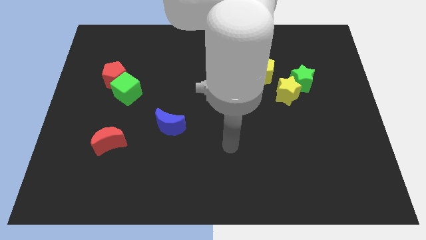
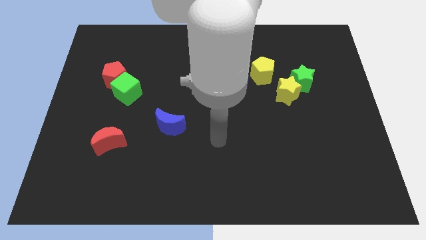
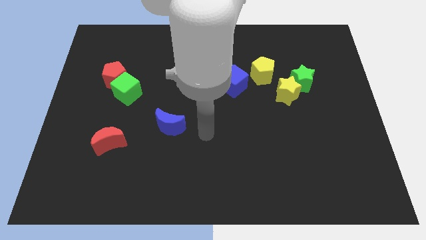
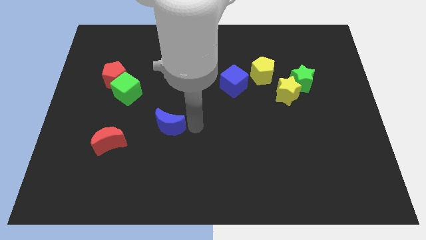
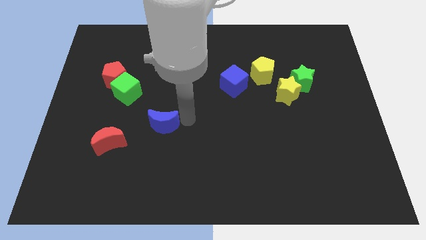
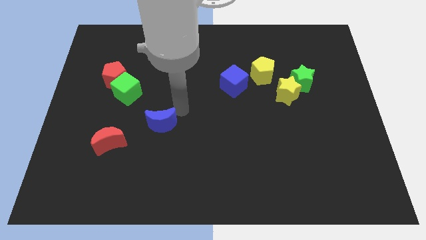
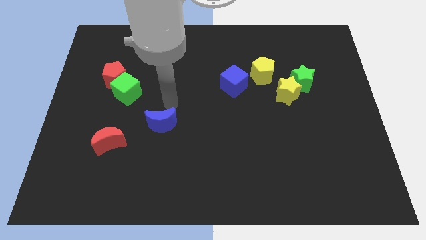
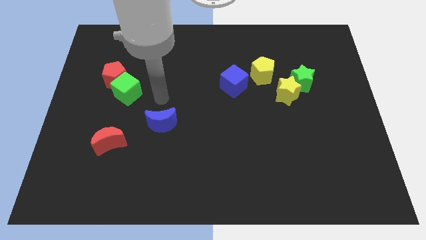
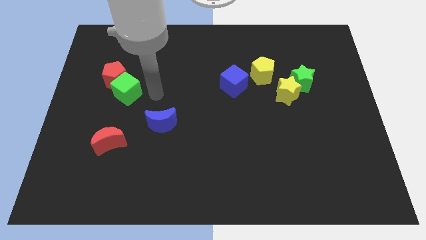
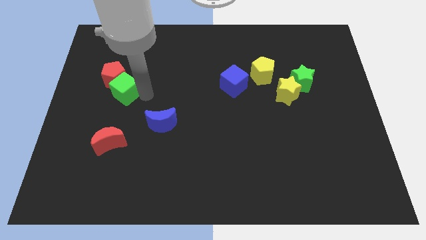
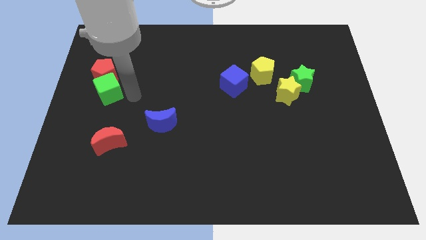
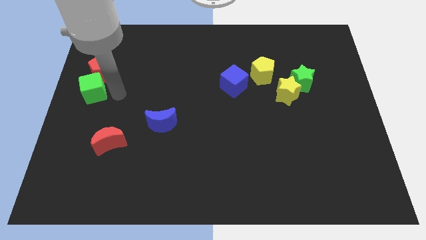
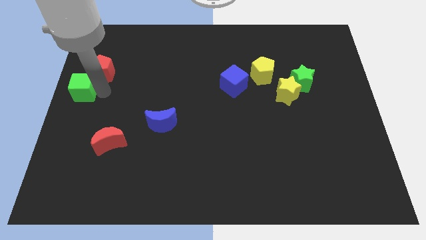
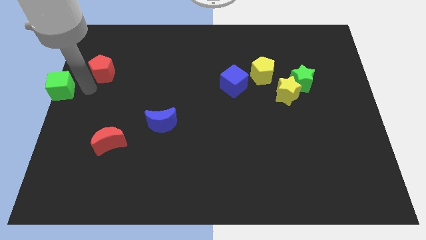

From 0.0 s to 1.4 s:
pull the red pentagon apart from the green cube

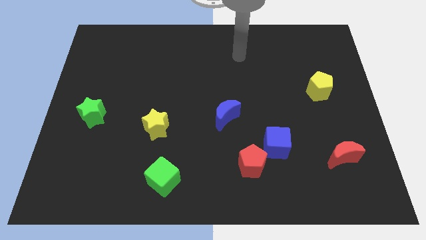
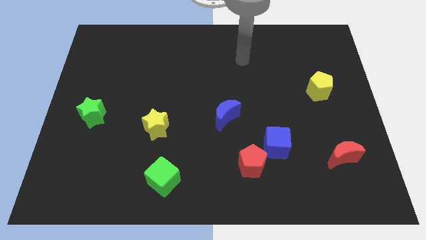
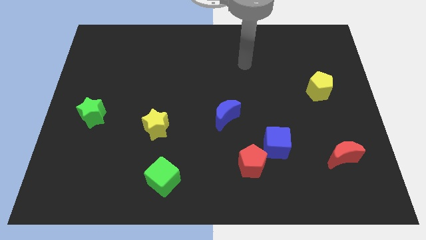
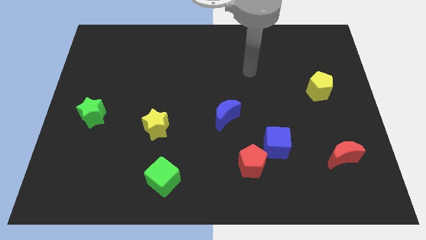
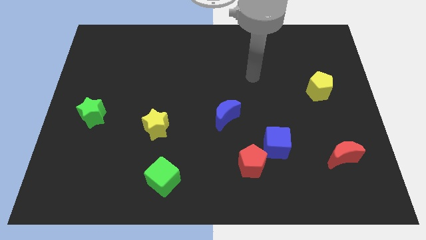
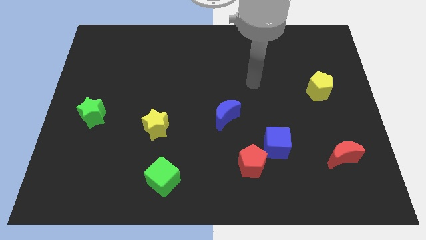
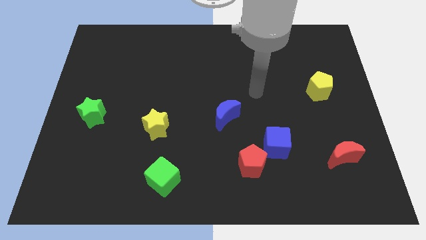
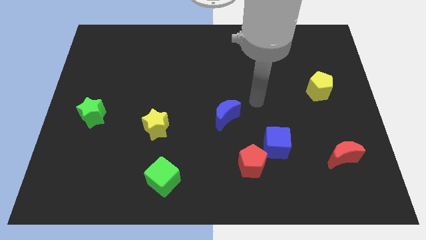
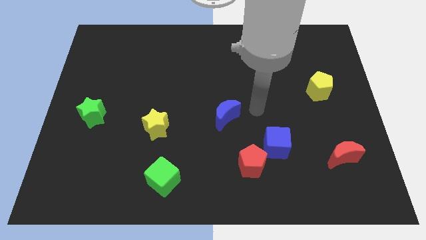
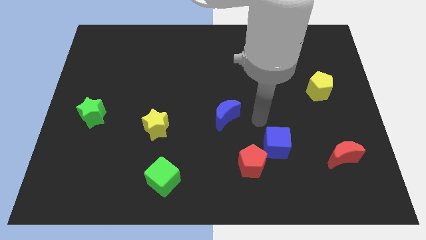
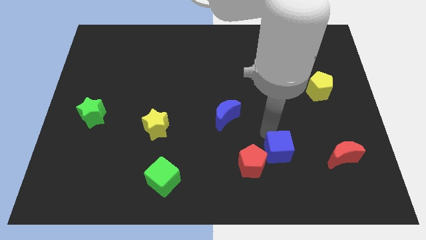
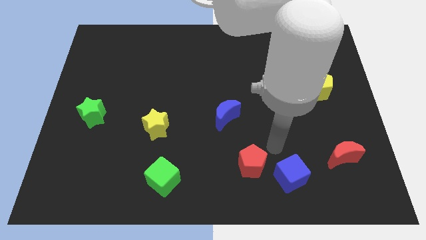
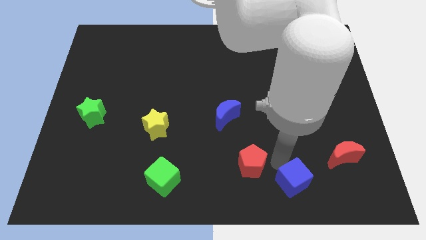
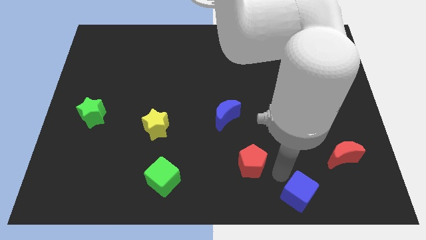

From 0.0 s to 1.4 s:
pull the red pentagon apart from the blue cube

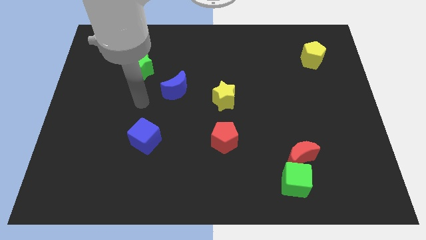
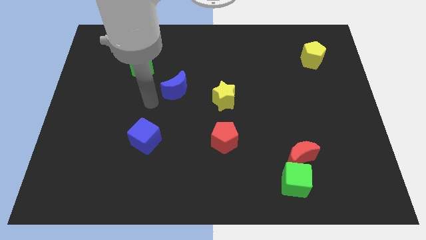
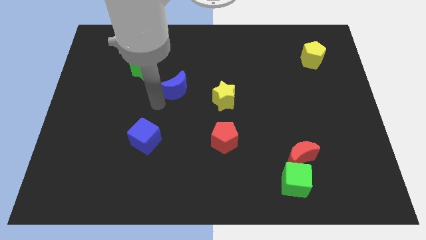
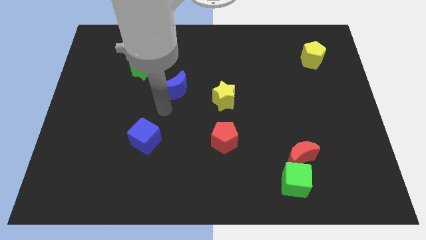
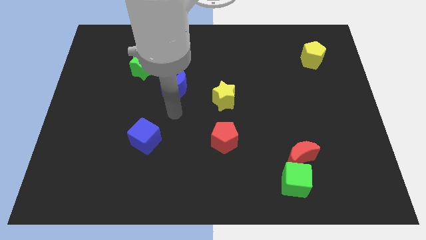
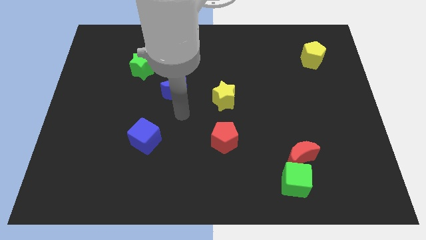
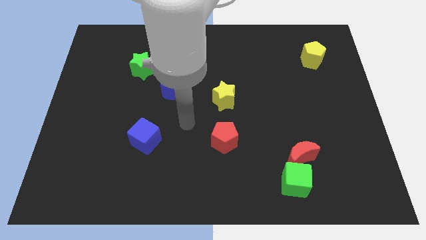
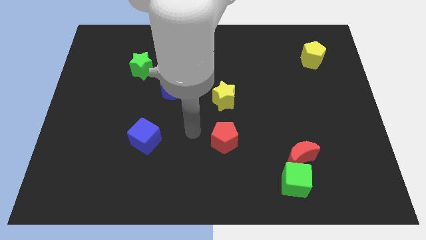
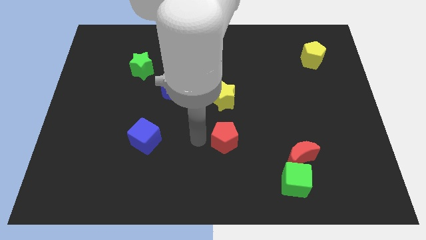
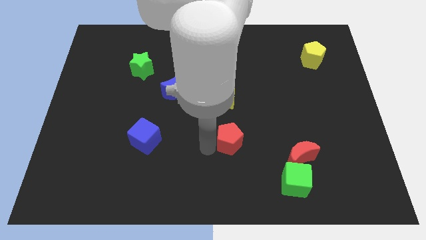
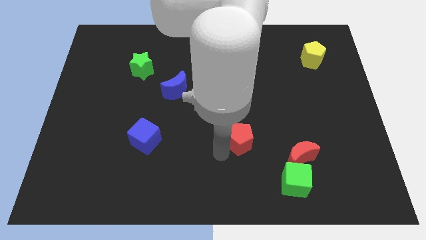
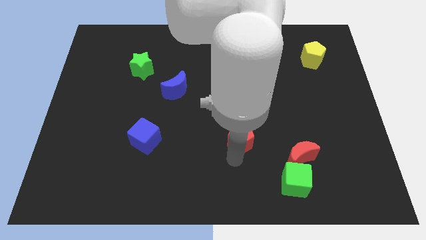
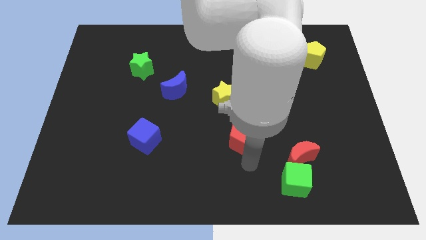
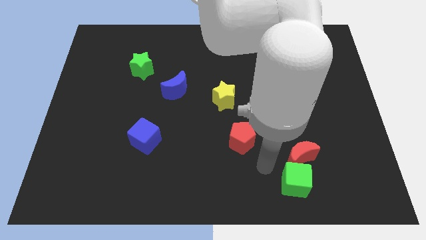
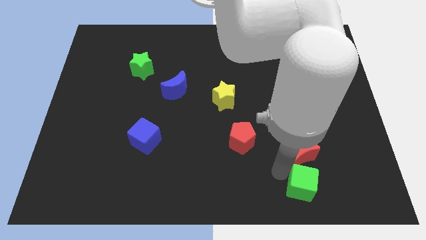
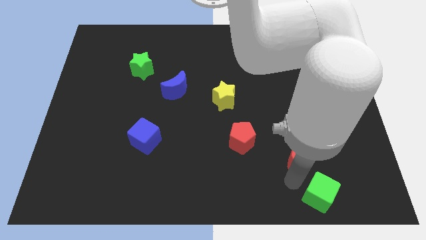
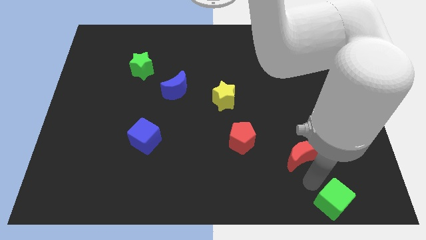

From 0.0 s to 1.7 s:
pull the red moon apart from the green cube

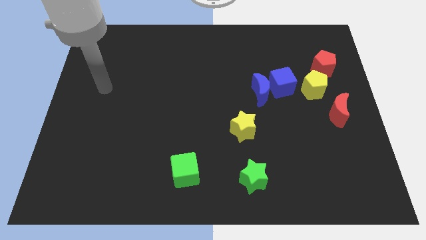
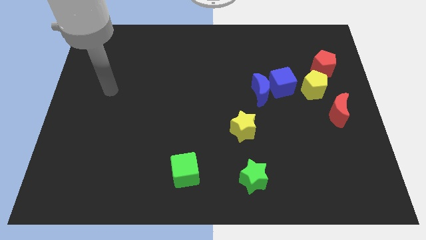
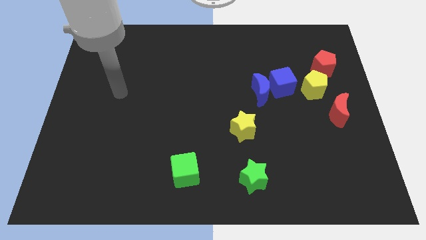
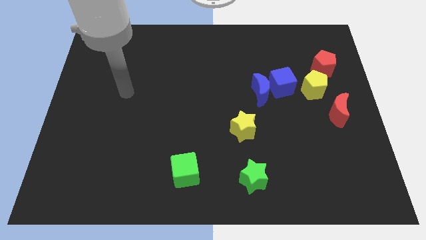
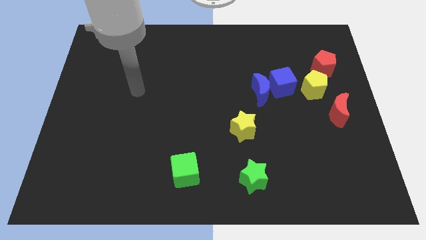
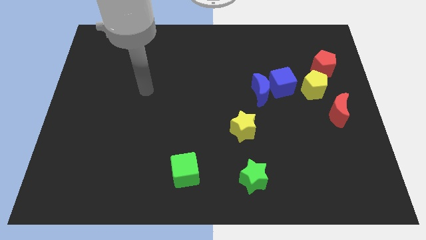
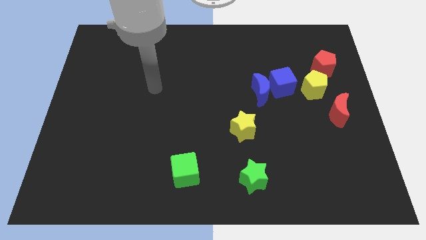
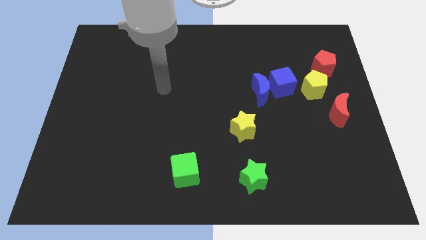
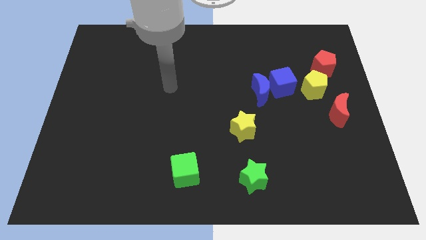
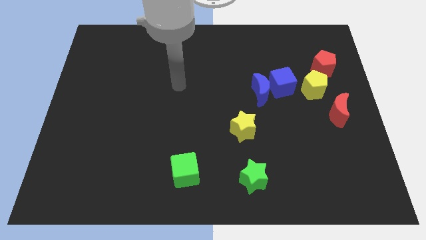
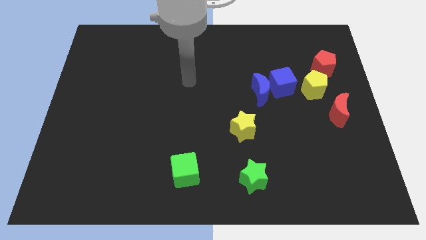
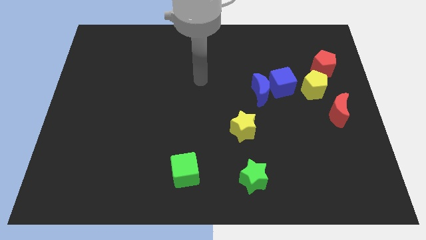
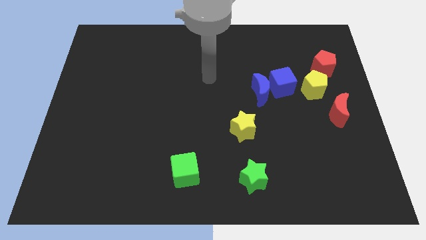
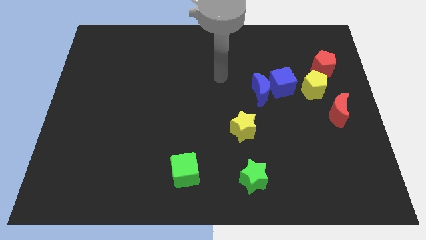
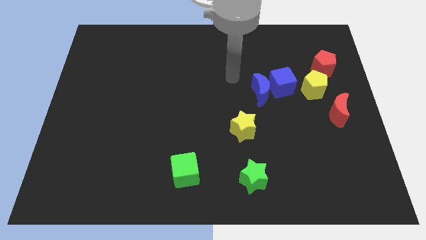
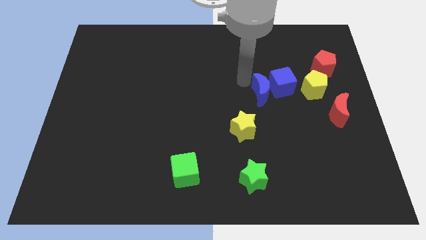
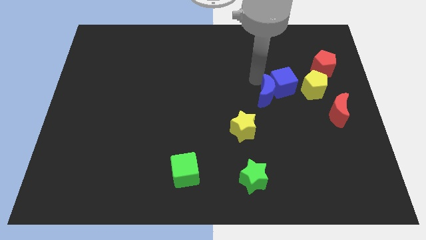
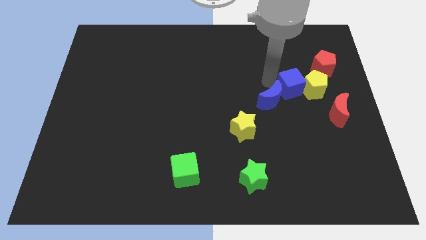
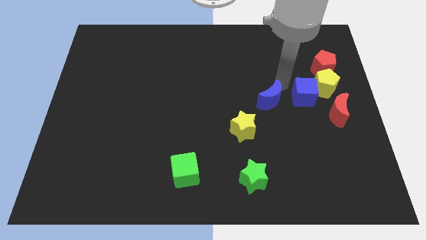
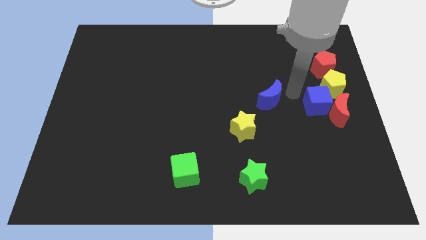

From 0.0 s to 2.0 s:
separate the blue moon from the blue cube

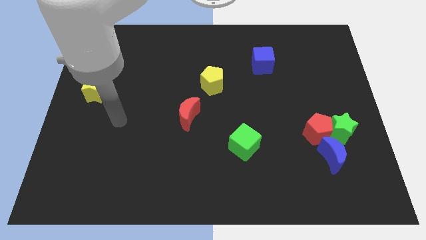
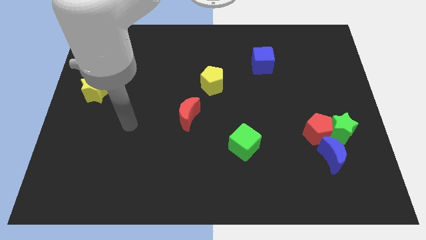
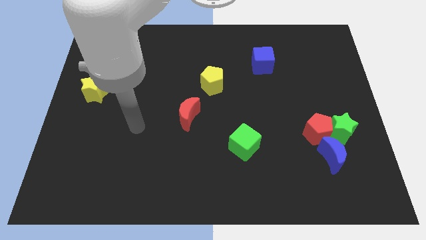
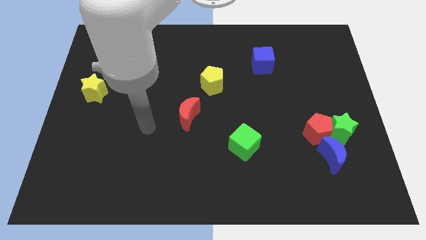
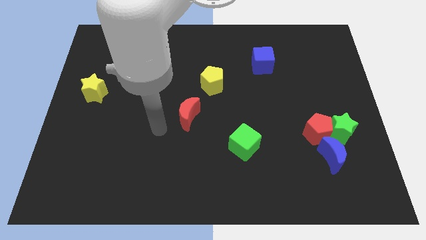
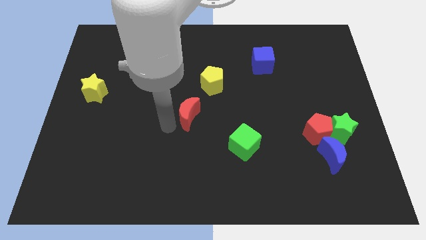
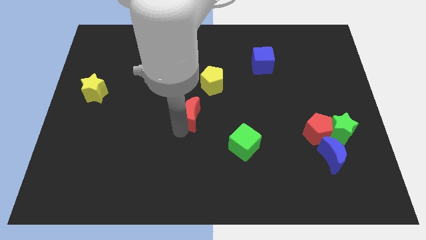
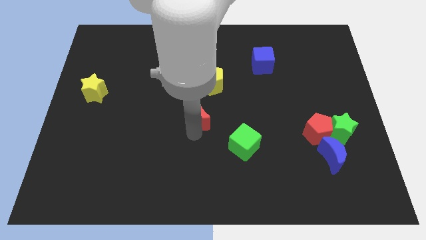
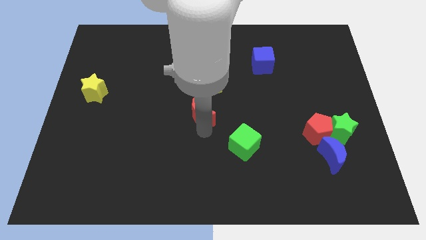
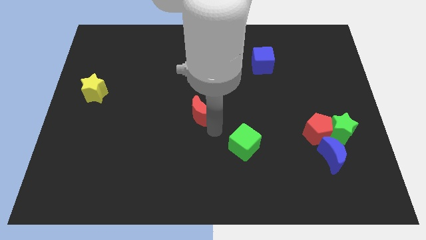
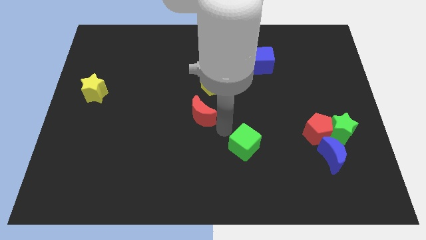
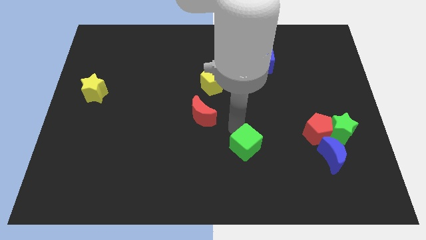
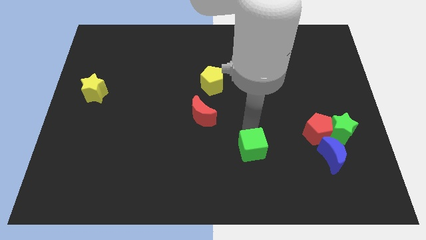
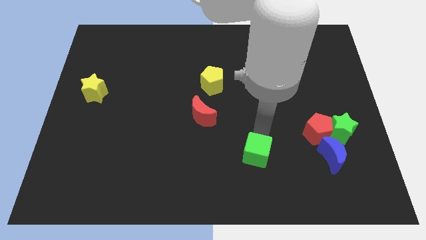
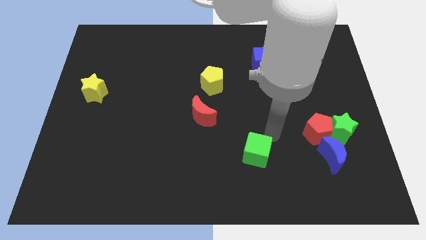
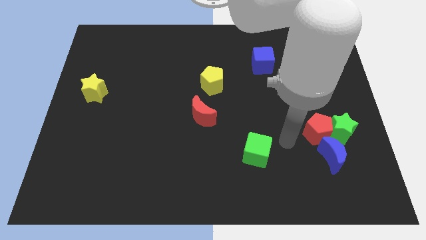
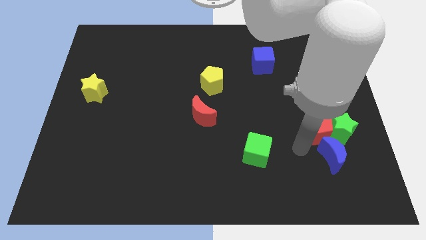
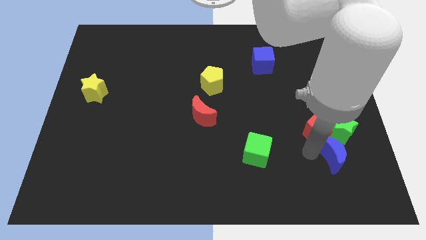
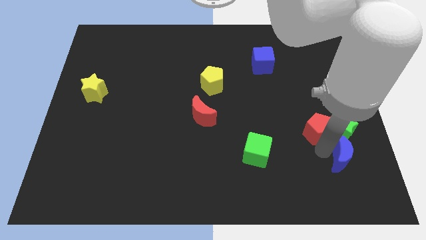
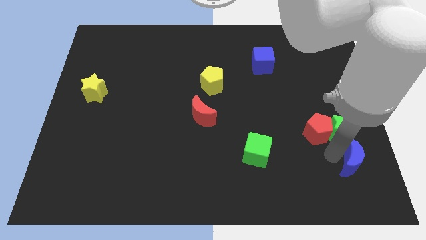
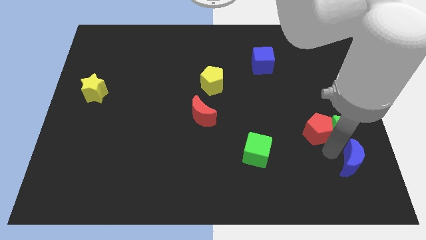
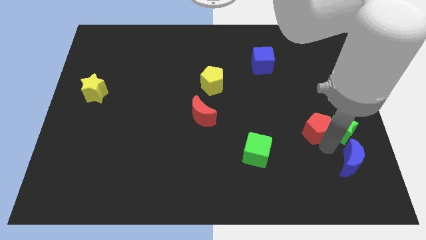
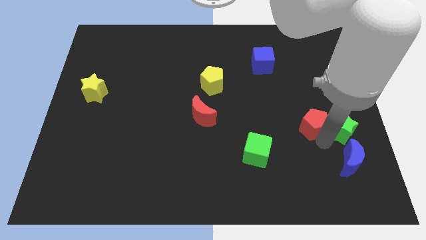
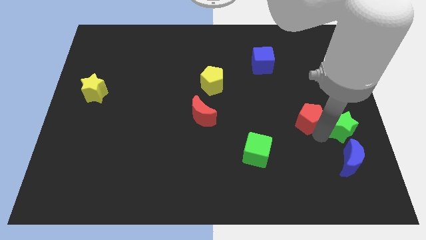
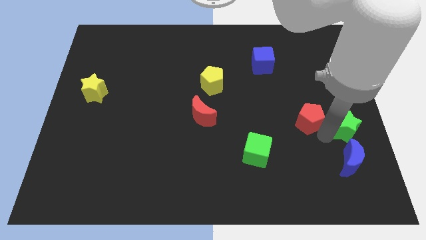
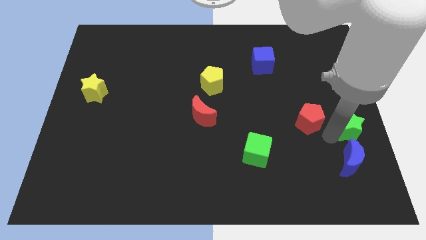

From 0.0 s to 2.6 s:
move the red pentagon away from the green star and blue moon
